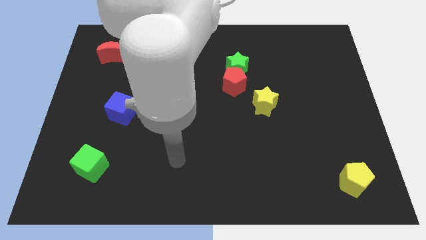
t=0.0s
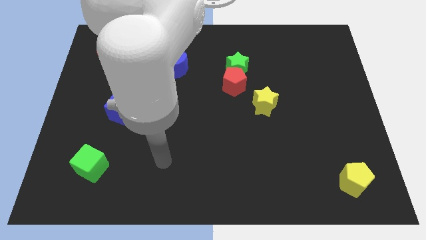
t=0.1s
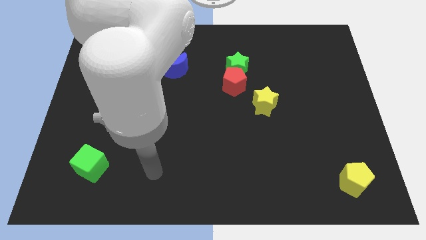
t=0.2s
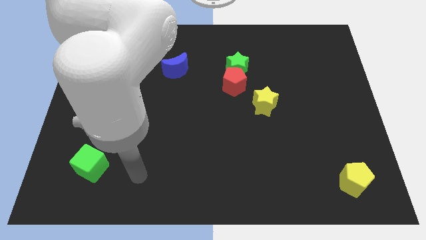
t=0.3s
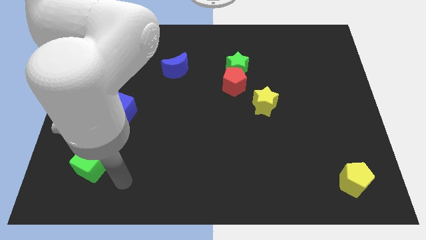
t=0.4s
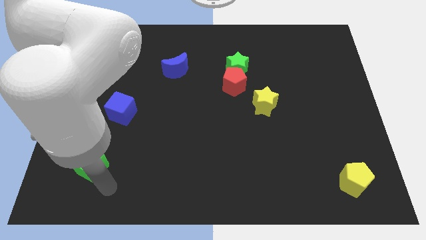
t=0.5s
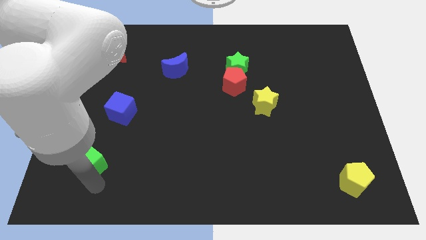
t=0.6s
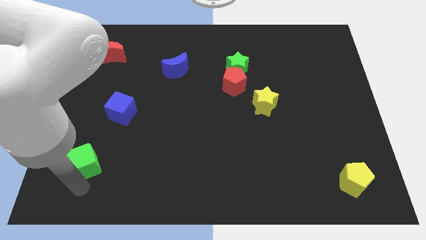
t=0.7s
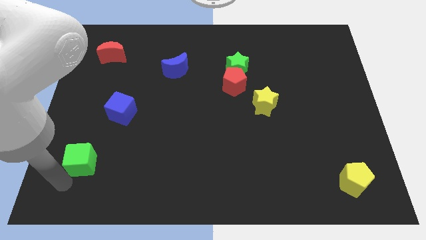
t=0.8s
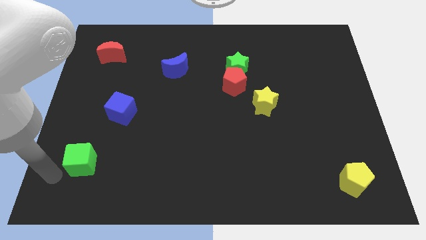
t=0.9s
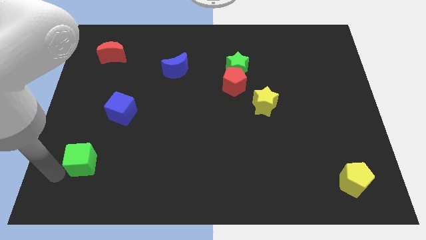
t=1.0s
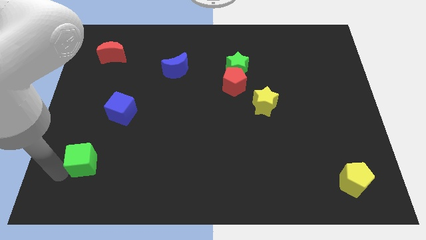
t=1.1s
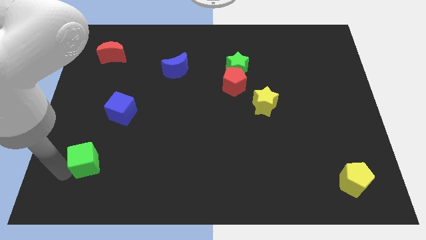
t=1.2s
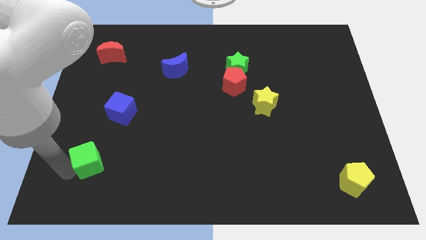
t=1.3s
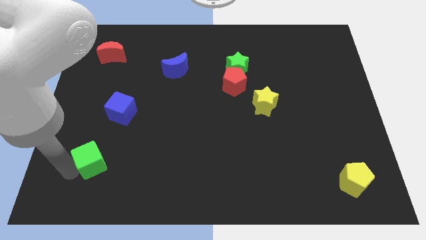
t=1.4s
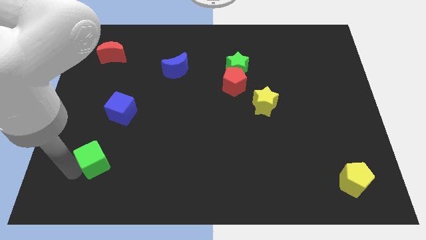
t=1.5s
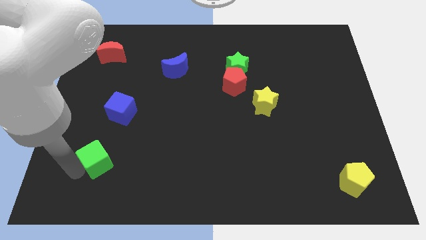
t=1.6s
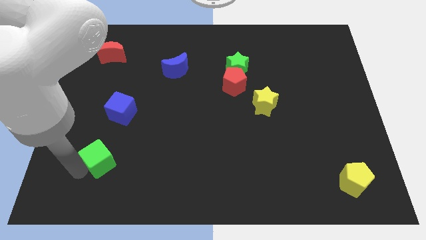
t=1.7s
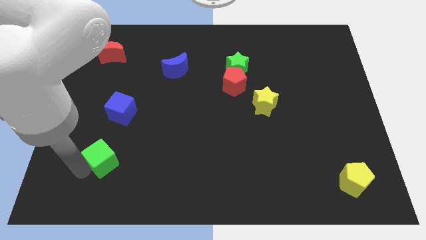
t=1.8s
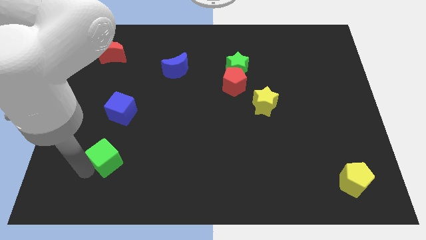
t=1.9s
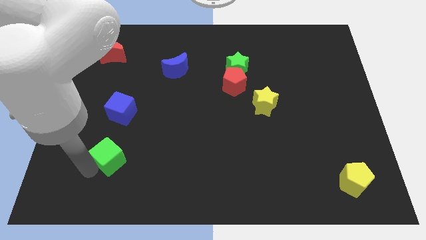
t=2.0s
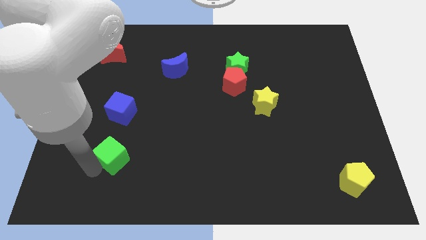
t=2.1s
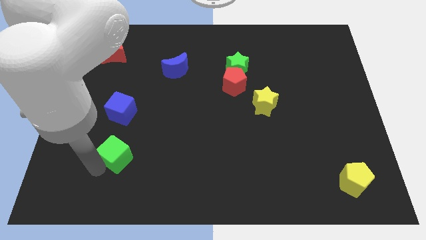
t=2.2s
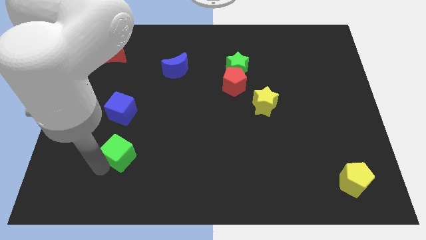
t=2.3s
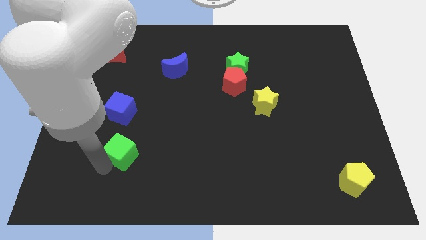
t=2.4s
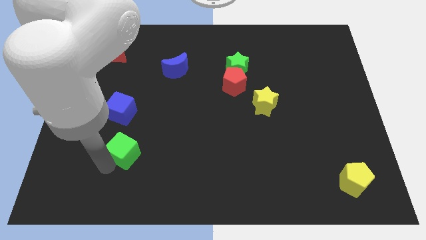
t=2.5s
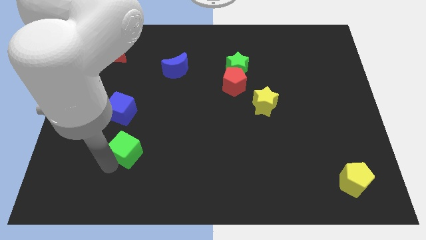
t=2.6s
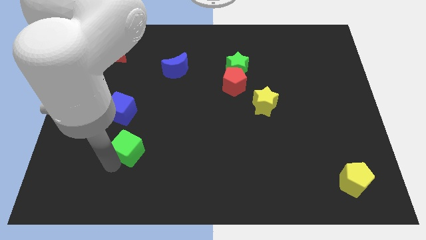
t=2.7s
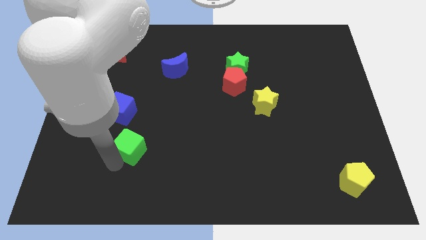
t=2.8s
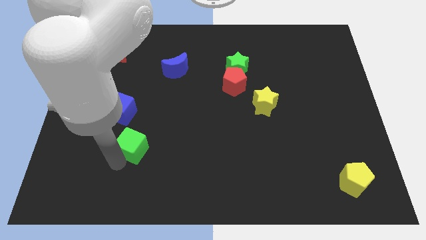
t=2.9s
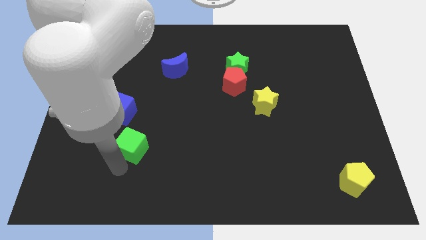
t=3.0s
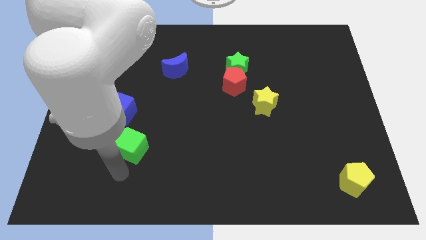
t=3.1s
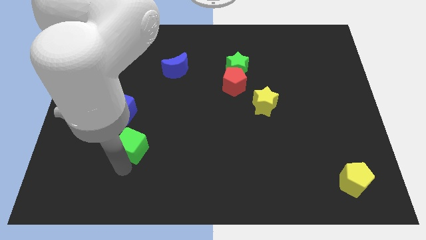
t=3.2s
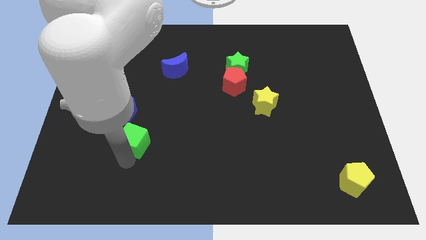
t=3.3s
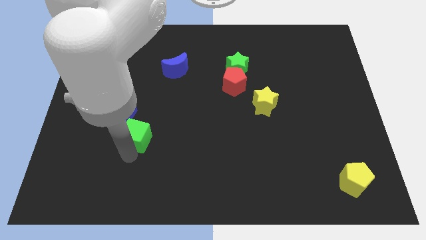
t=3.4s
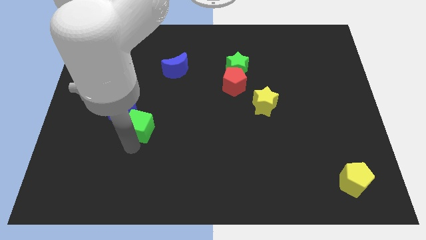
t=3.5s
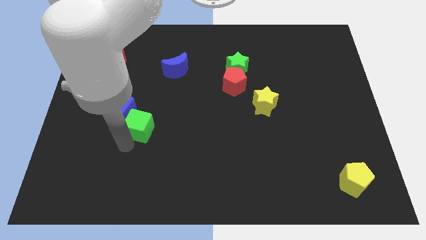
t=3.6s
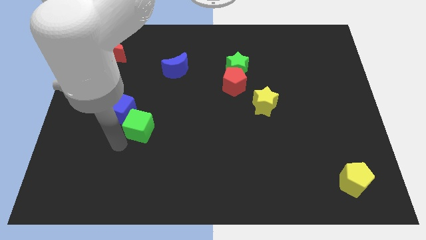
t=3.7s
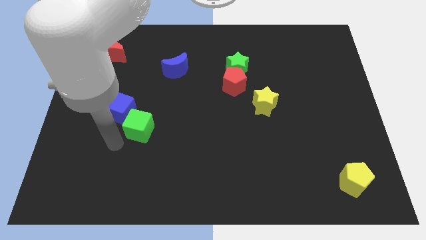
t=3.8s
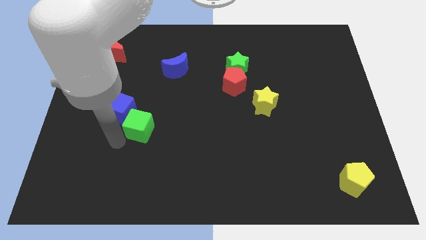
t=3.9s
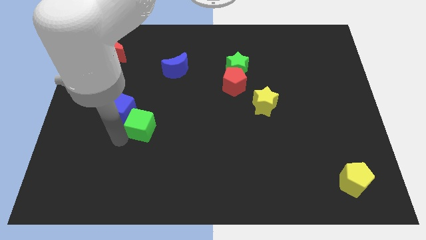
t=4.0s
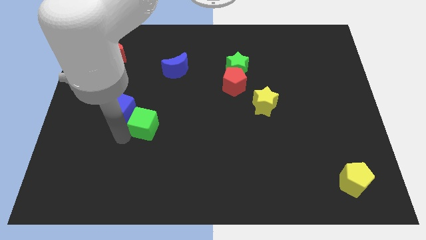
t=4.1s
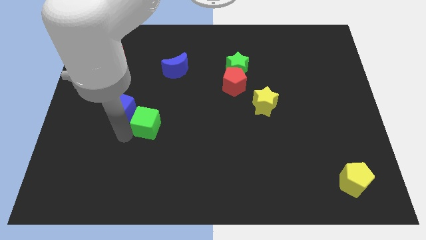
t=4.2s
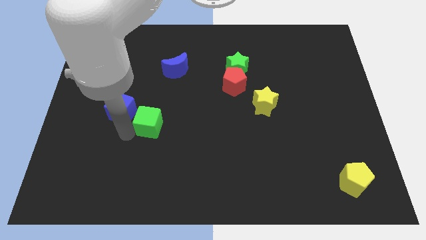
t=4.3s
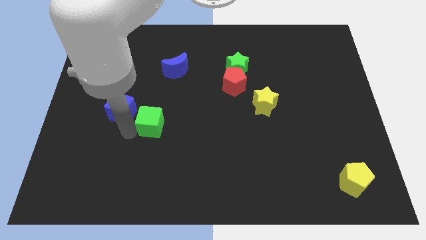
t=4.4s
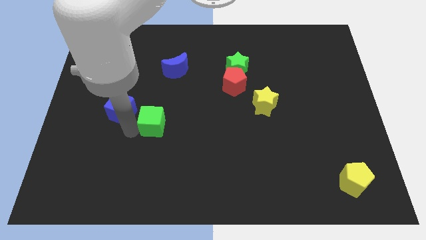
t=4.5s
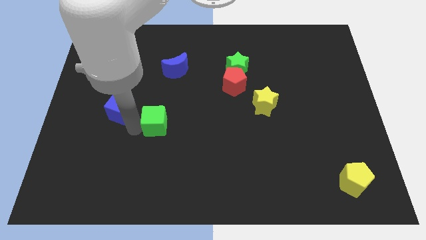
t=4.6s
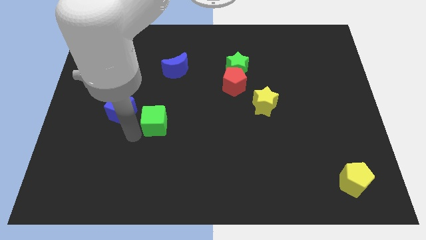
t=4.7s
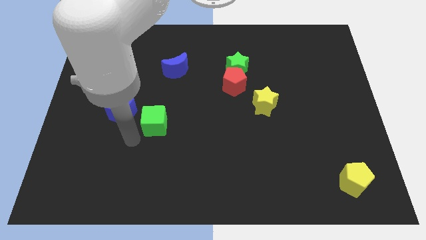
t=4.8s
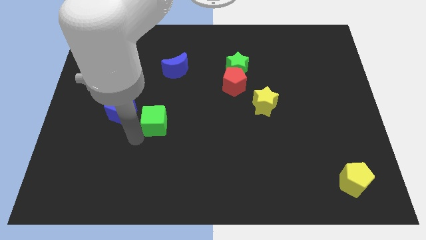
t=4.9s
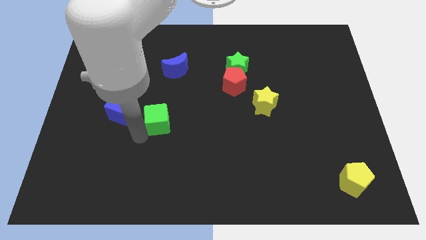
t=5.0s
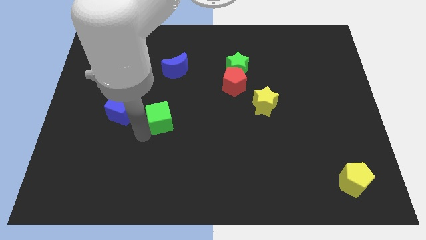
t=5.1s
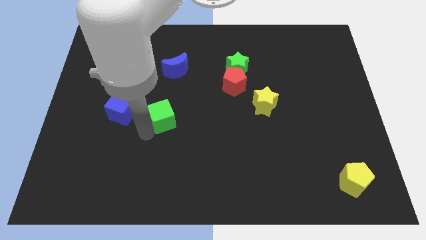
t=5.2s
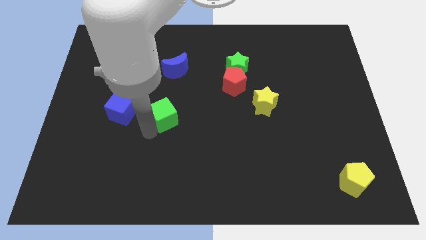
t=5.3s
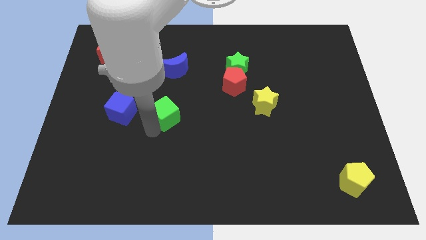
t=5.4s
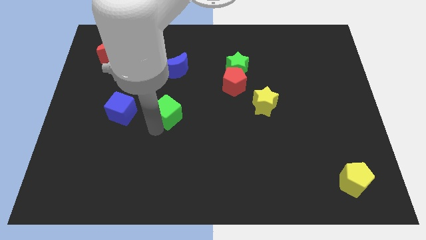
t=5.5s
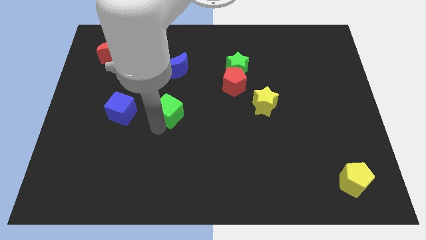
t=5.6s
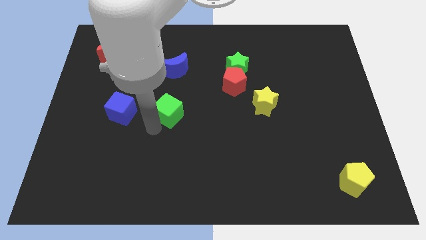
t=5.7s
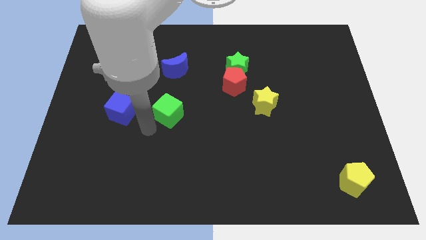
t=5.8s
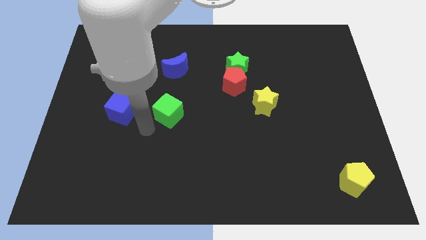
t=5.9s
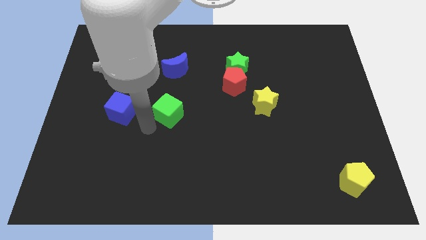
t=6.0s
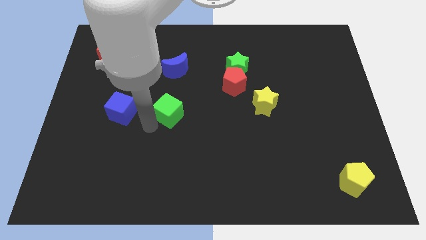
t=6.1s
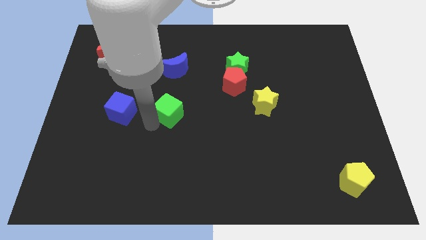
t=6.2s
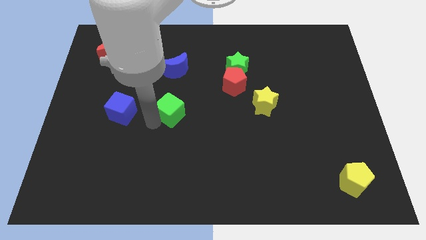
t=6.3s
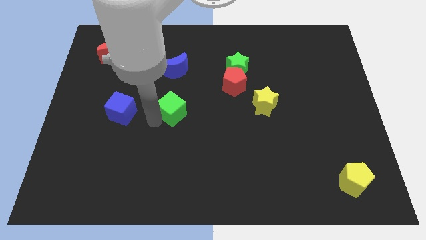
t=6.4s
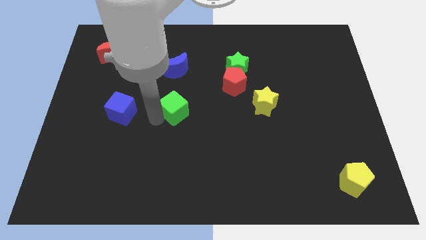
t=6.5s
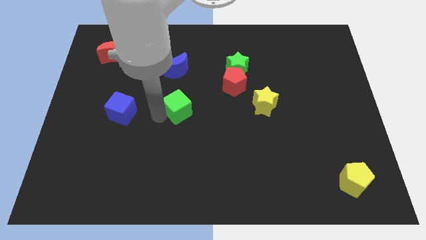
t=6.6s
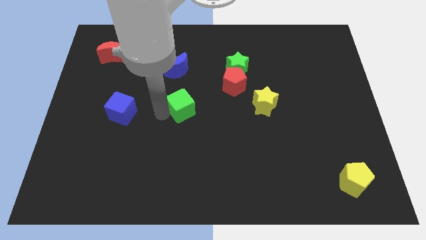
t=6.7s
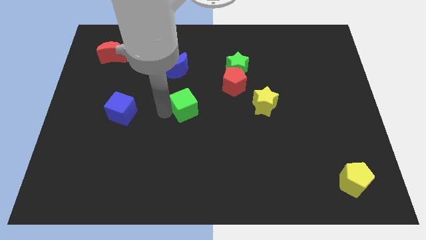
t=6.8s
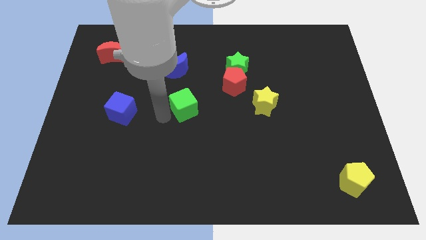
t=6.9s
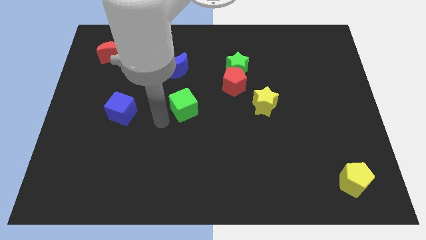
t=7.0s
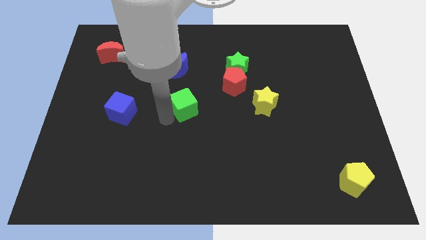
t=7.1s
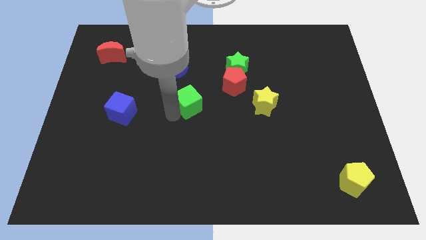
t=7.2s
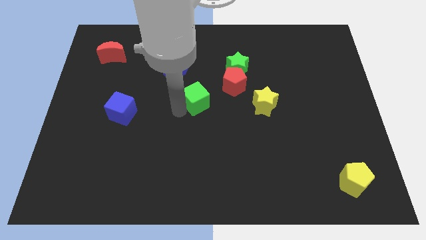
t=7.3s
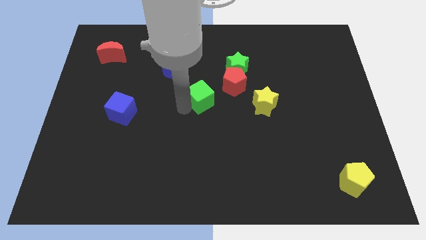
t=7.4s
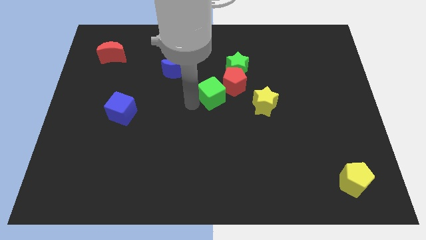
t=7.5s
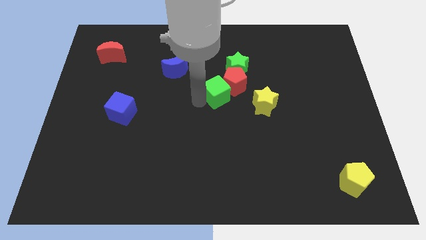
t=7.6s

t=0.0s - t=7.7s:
put the green cube to the red pentagon
